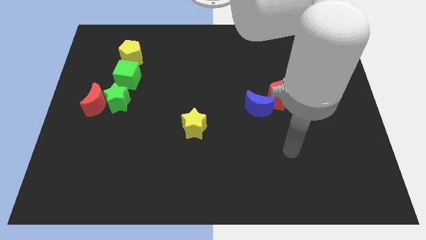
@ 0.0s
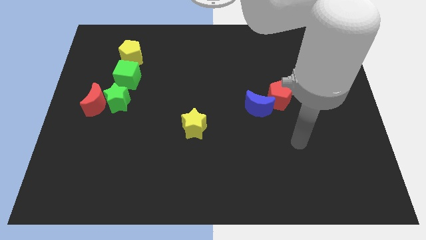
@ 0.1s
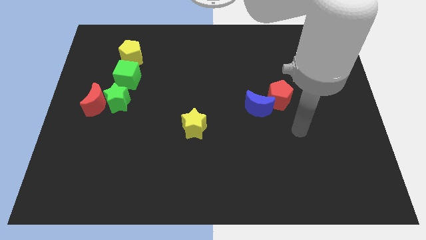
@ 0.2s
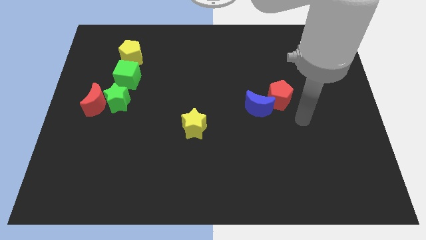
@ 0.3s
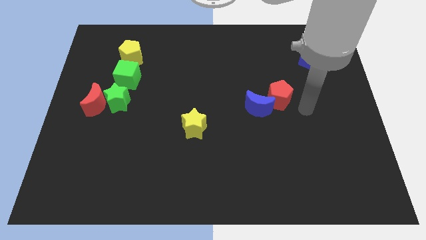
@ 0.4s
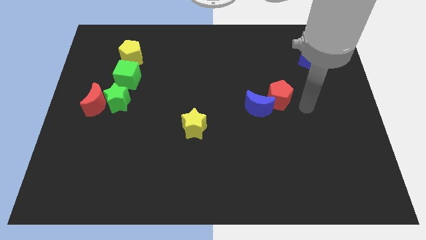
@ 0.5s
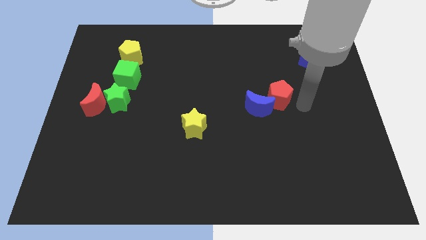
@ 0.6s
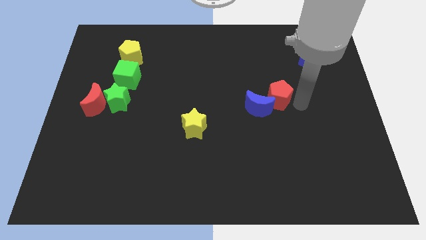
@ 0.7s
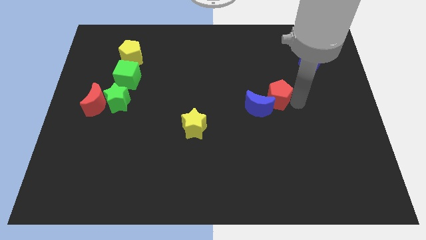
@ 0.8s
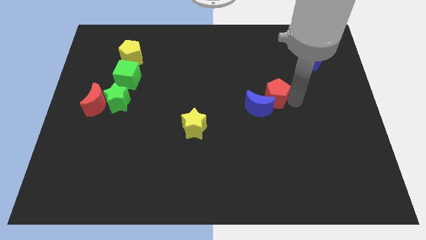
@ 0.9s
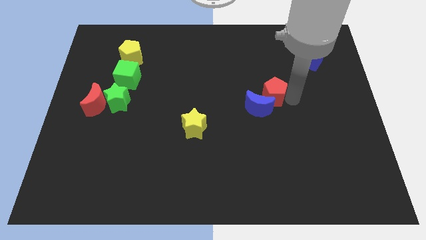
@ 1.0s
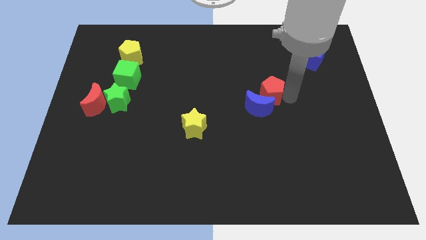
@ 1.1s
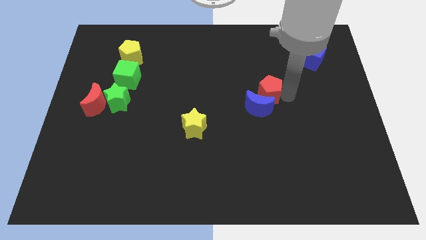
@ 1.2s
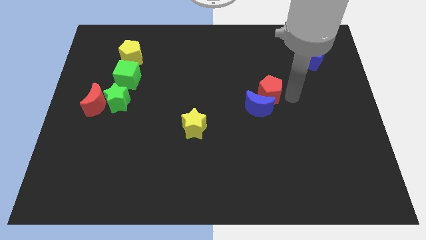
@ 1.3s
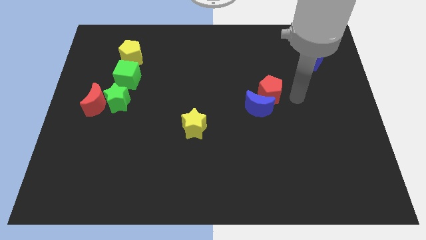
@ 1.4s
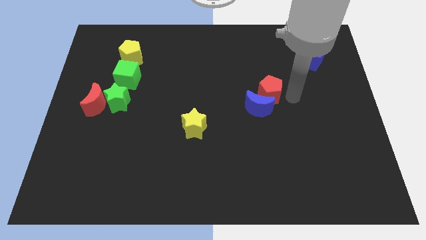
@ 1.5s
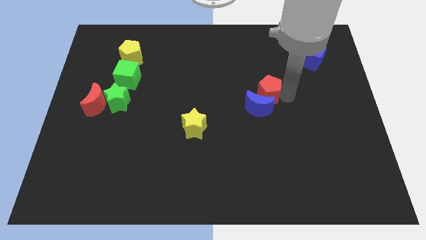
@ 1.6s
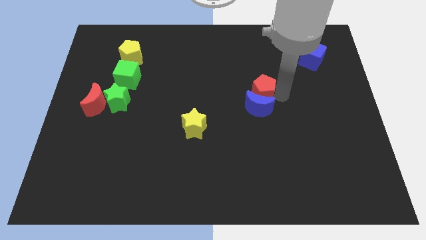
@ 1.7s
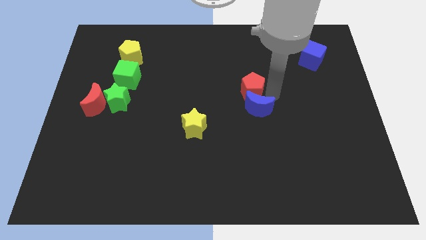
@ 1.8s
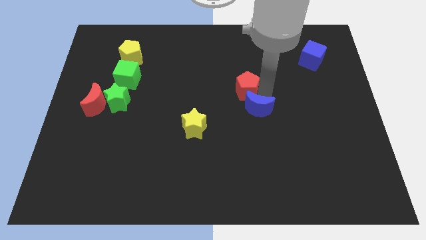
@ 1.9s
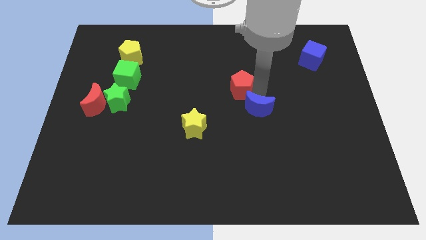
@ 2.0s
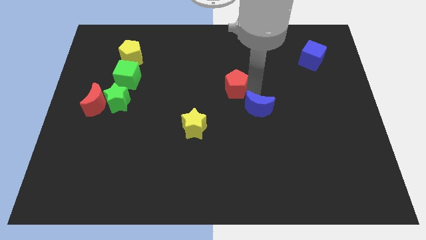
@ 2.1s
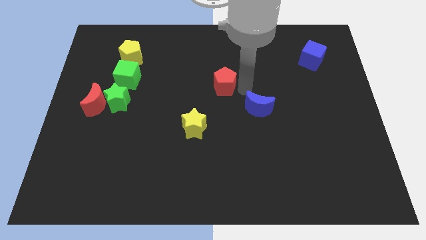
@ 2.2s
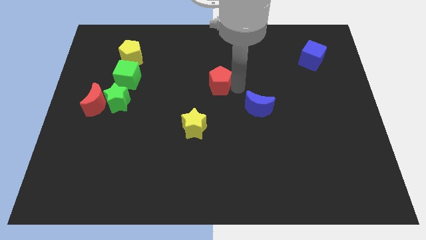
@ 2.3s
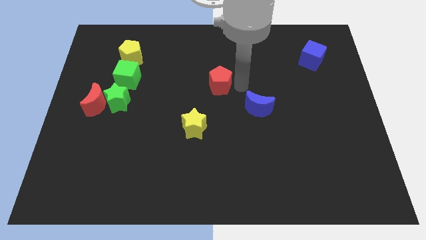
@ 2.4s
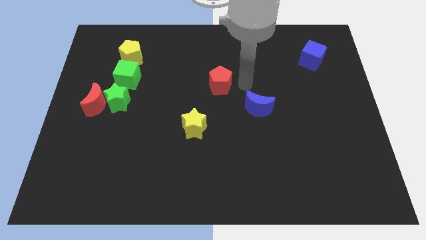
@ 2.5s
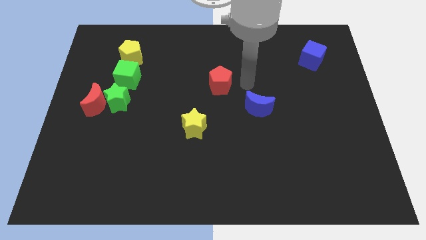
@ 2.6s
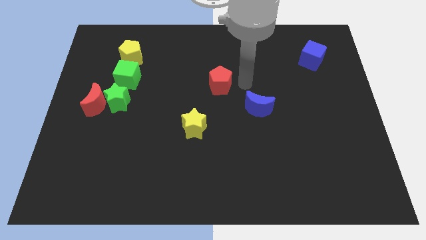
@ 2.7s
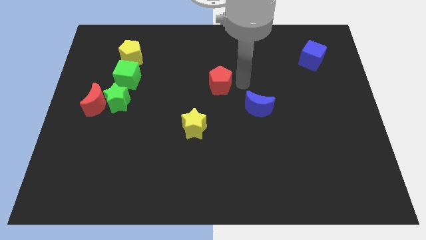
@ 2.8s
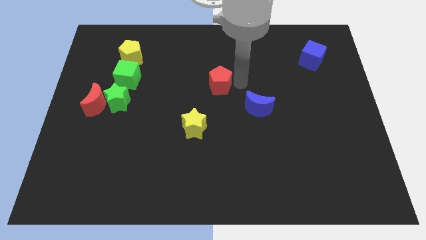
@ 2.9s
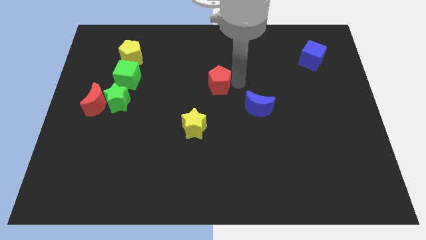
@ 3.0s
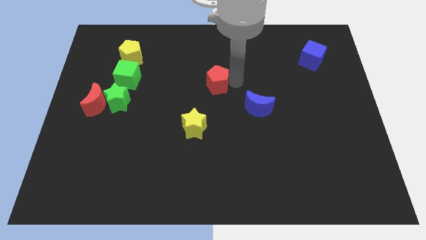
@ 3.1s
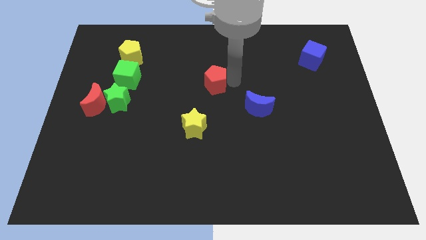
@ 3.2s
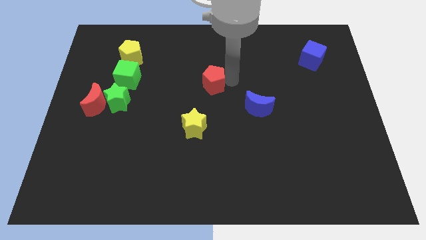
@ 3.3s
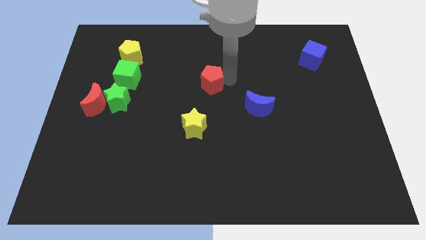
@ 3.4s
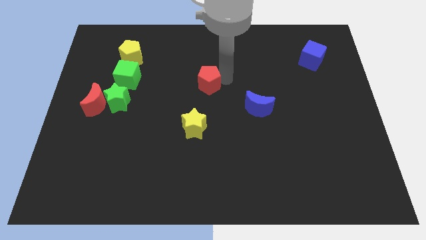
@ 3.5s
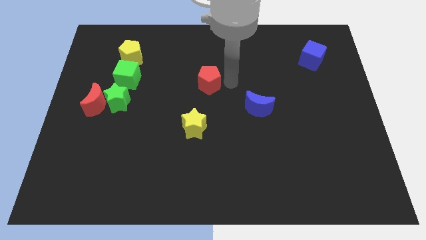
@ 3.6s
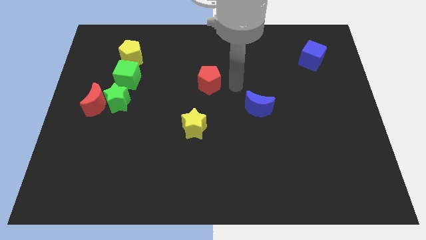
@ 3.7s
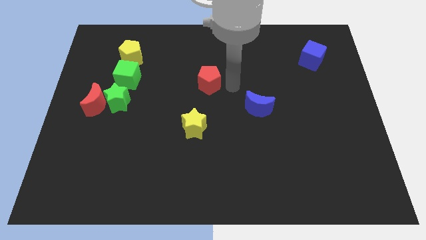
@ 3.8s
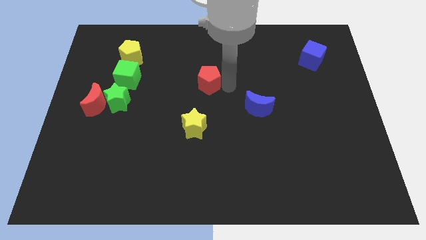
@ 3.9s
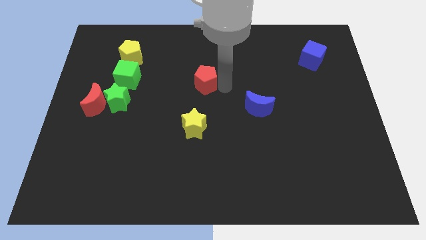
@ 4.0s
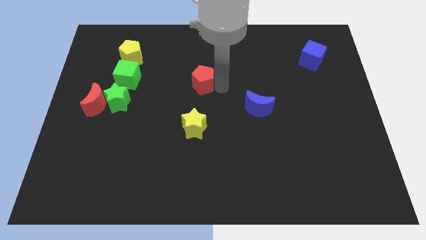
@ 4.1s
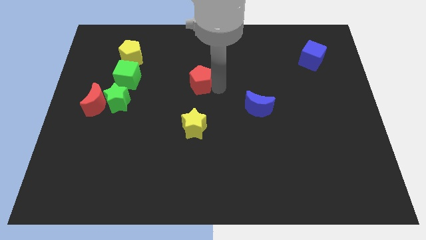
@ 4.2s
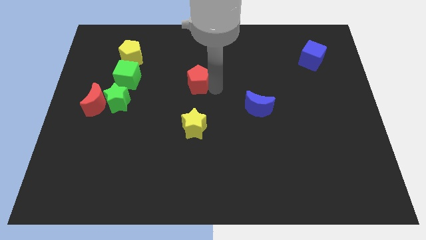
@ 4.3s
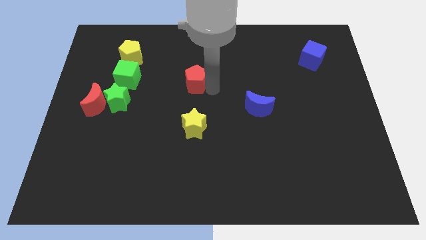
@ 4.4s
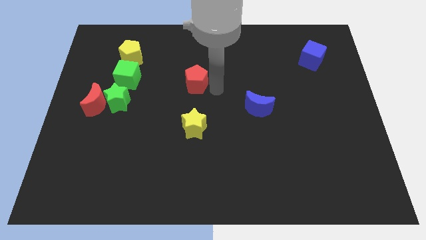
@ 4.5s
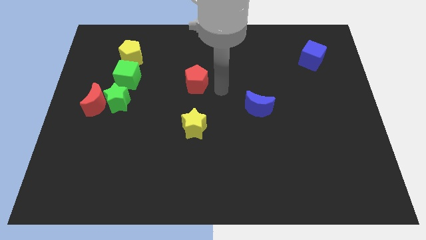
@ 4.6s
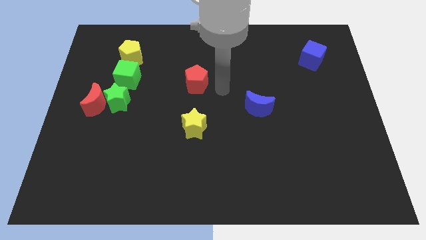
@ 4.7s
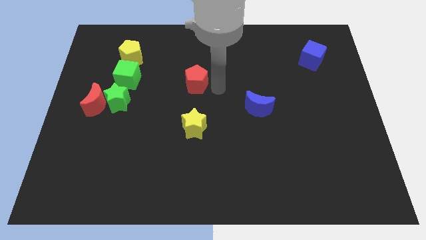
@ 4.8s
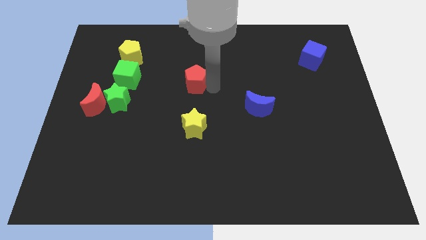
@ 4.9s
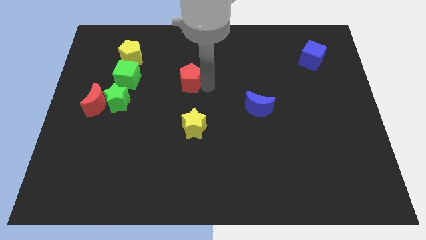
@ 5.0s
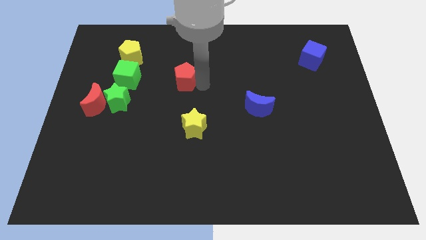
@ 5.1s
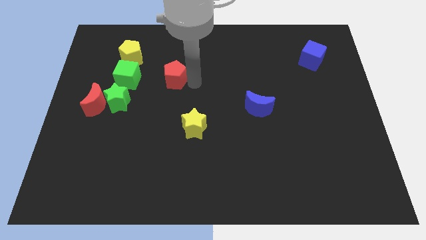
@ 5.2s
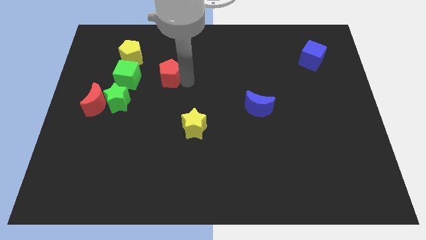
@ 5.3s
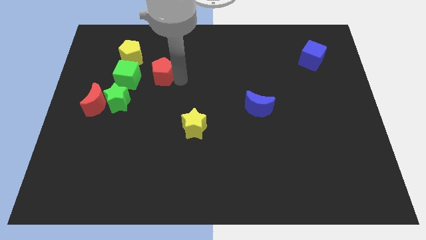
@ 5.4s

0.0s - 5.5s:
push the red pentagon to the bottom right side of the yellow pentagon

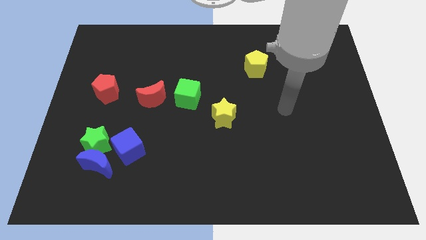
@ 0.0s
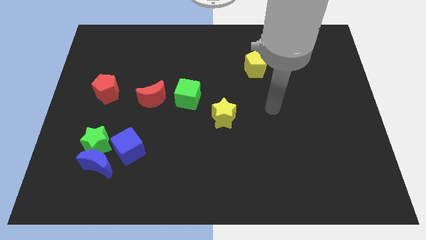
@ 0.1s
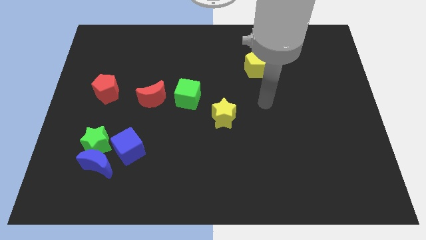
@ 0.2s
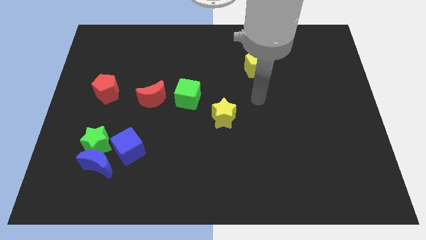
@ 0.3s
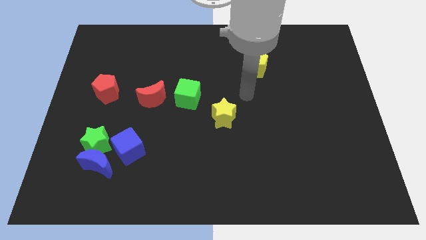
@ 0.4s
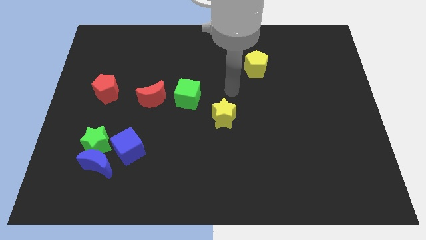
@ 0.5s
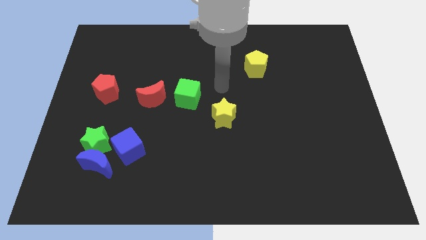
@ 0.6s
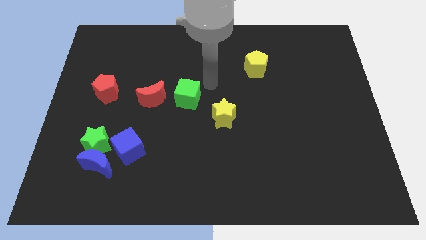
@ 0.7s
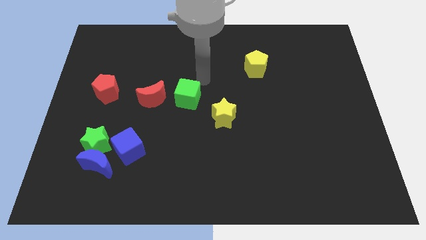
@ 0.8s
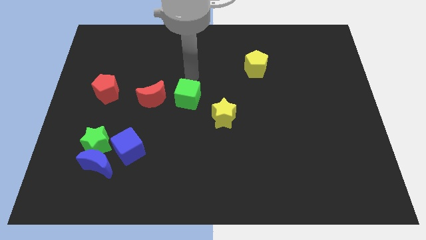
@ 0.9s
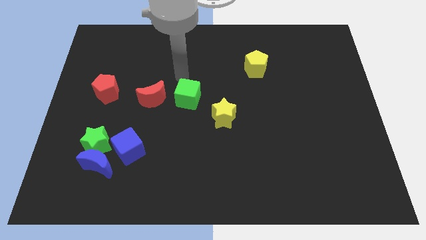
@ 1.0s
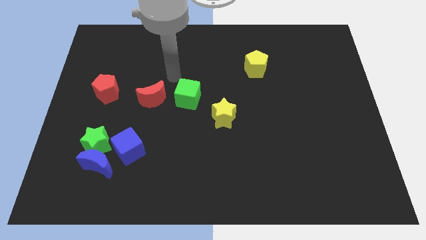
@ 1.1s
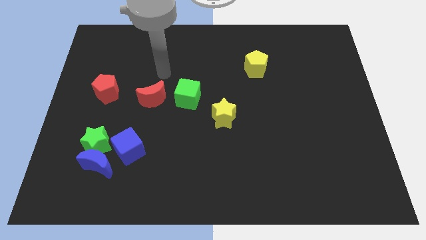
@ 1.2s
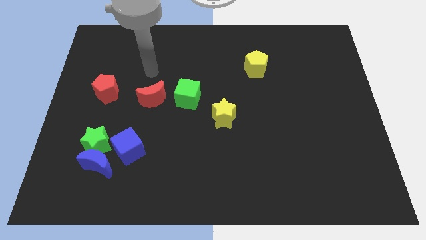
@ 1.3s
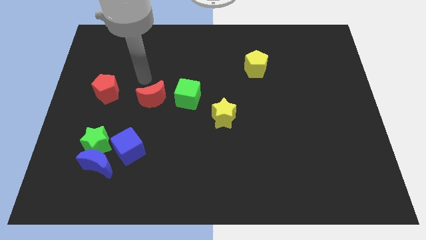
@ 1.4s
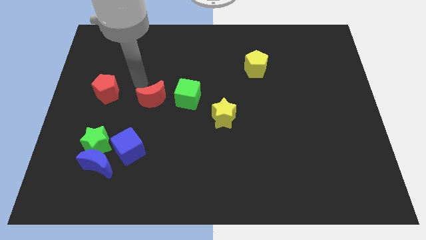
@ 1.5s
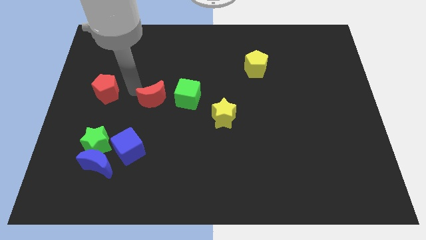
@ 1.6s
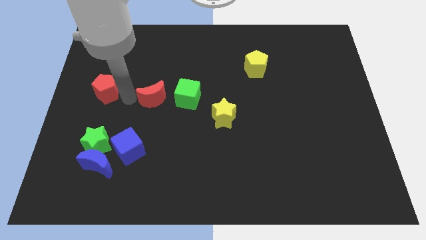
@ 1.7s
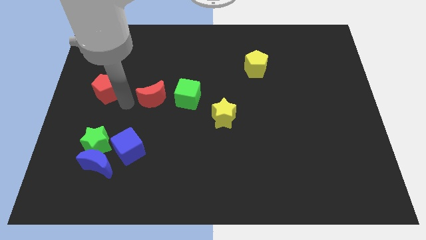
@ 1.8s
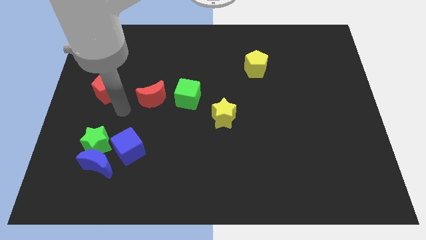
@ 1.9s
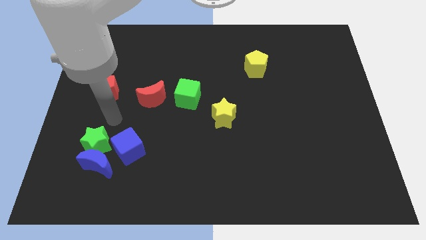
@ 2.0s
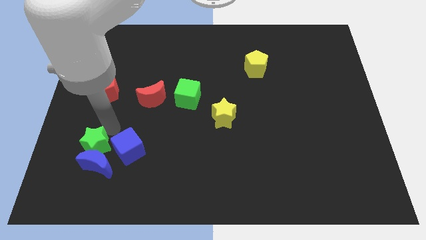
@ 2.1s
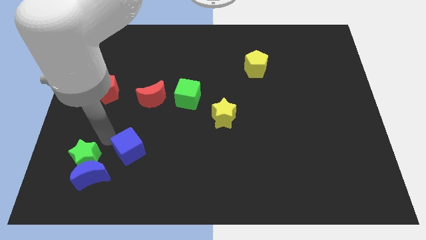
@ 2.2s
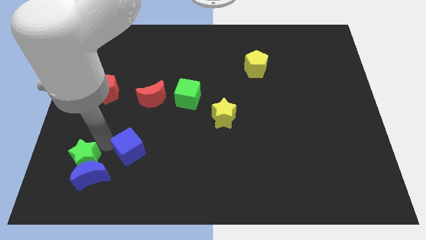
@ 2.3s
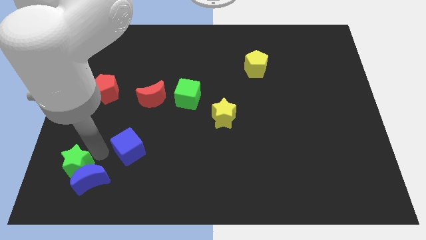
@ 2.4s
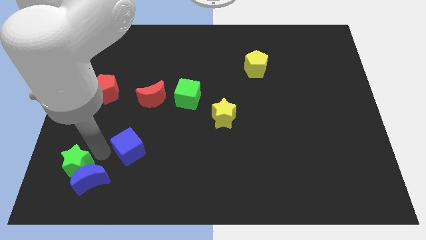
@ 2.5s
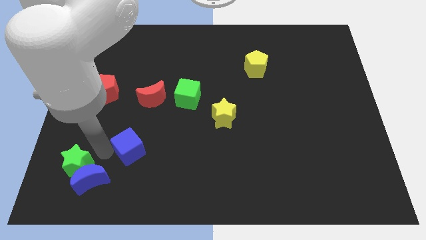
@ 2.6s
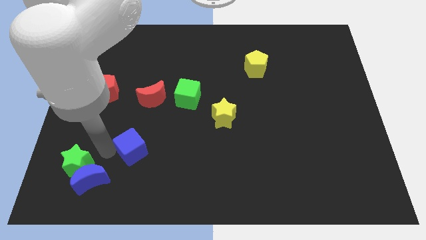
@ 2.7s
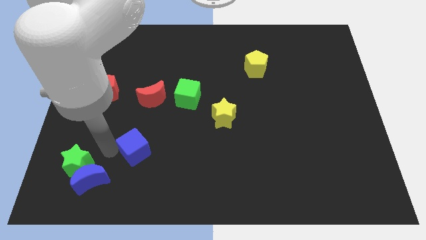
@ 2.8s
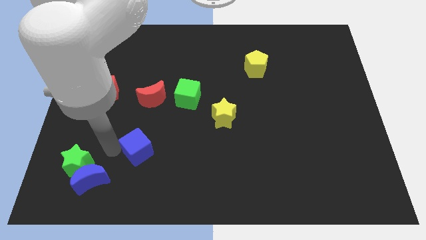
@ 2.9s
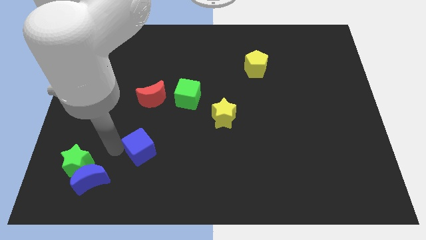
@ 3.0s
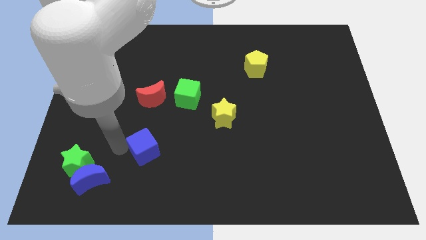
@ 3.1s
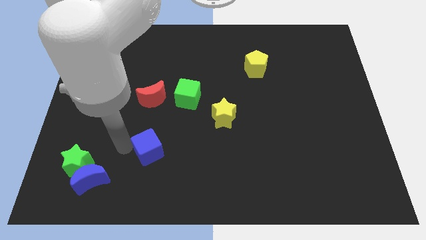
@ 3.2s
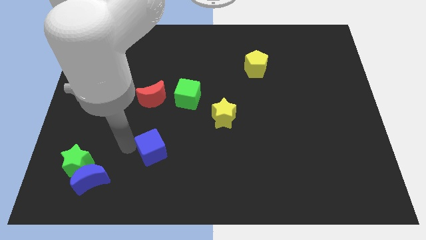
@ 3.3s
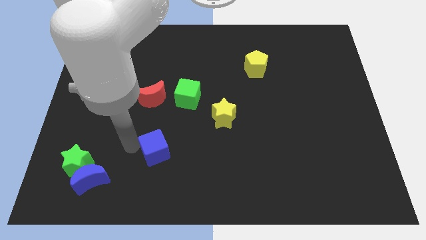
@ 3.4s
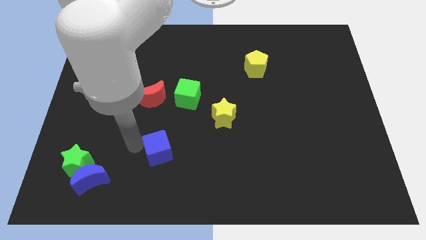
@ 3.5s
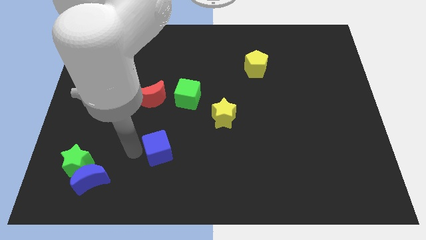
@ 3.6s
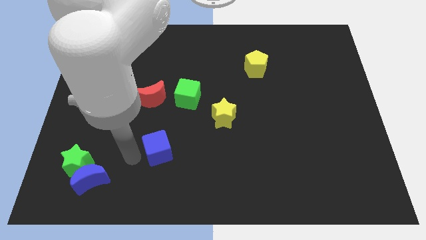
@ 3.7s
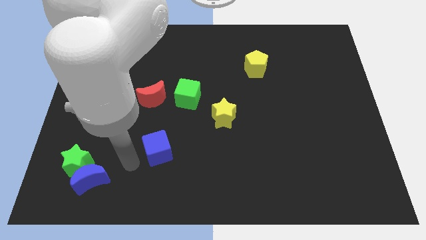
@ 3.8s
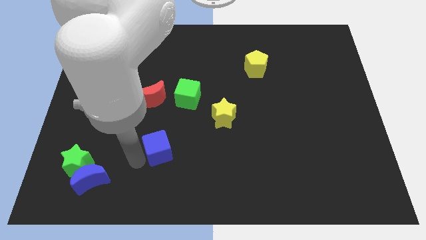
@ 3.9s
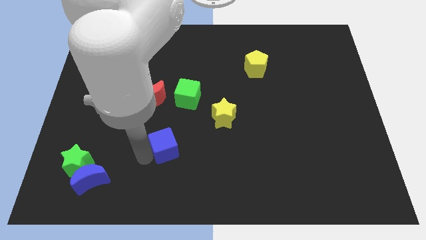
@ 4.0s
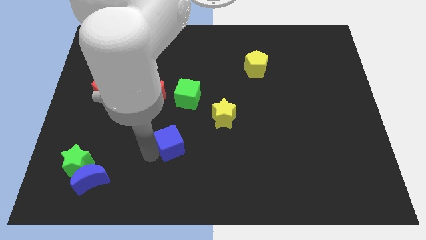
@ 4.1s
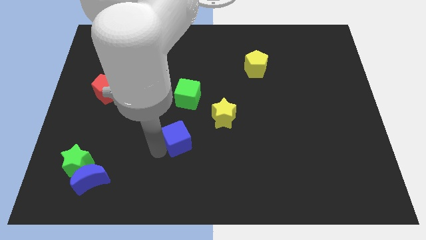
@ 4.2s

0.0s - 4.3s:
move the blue cube to the bottom left of the yellow star
